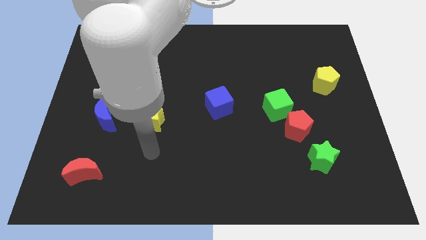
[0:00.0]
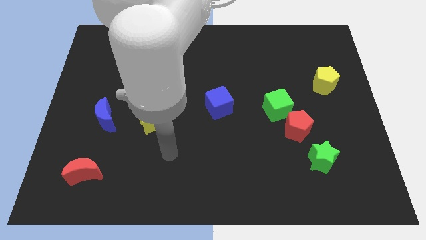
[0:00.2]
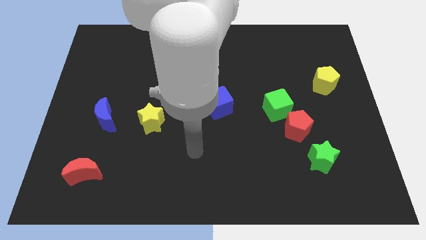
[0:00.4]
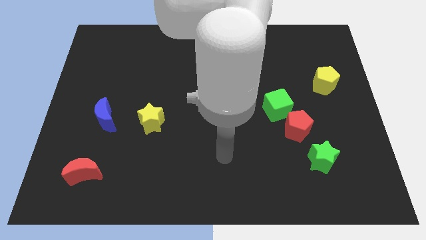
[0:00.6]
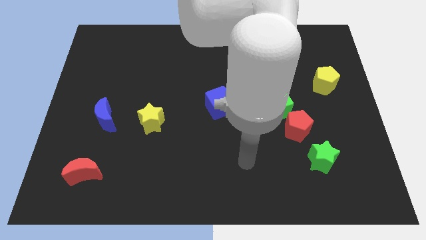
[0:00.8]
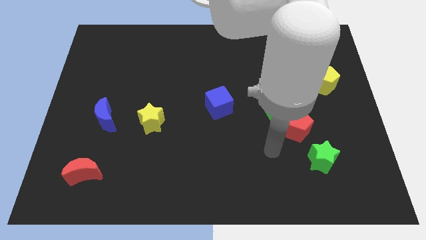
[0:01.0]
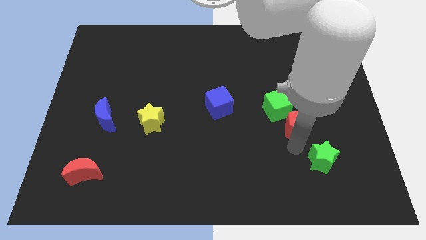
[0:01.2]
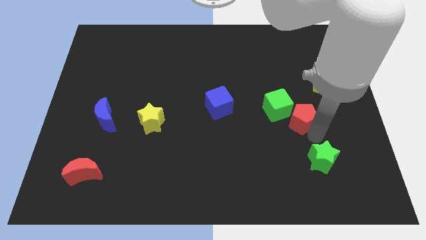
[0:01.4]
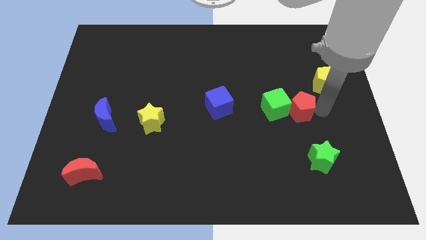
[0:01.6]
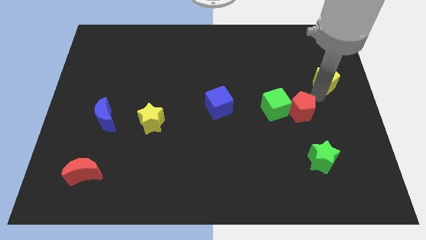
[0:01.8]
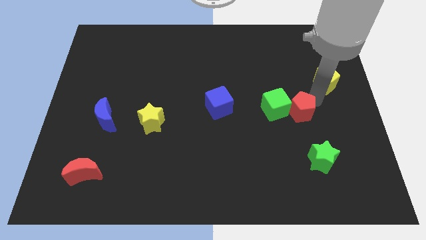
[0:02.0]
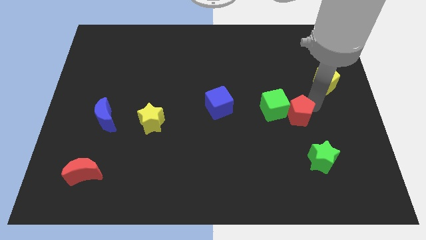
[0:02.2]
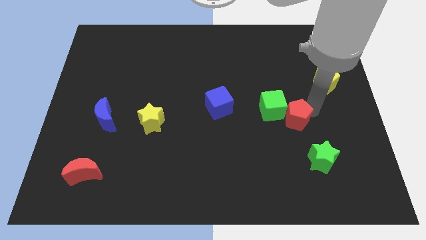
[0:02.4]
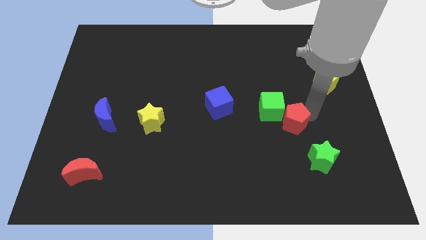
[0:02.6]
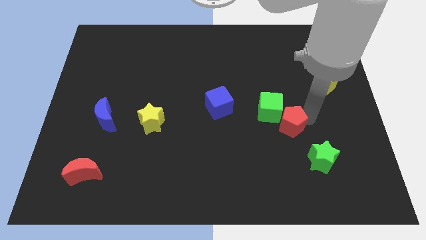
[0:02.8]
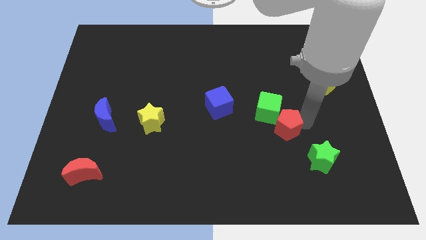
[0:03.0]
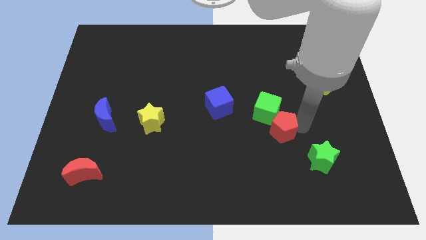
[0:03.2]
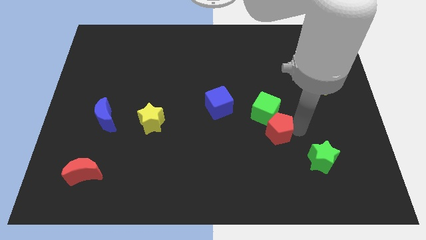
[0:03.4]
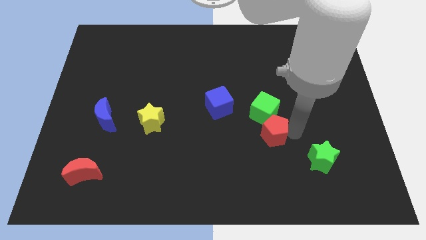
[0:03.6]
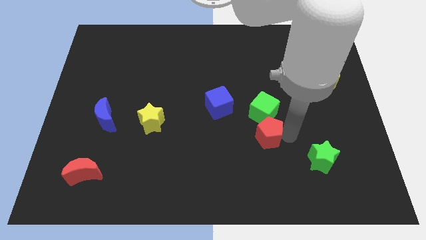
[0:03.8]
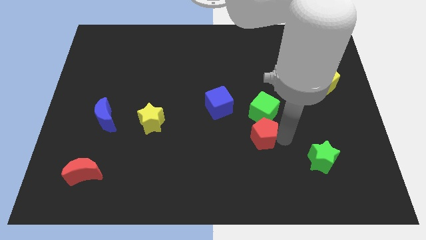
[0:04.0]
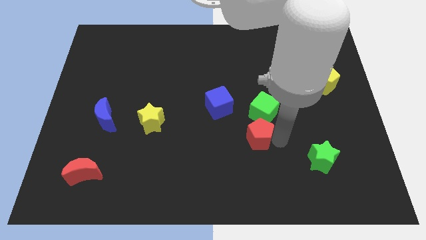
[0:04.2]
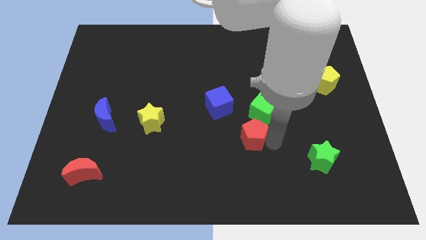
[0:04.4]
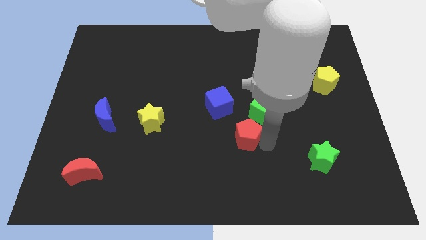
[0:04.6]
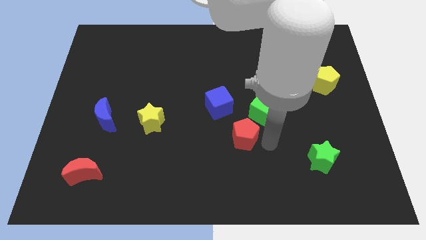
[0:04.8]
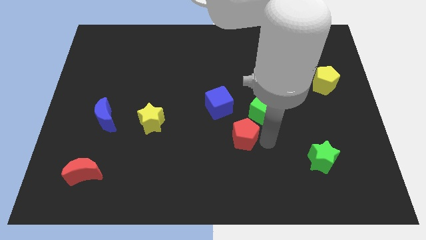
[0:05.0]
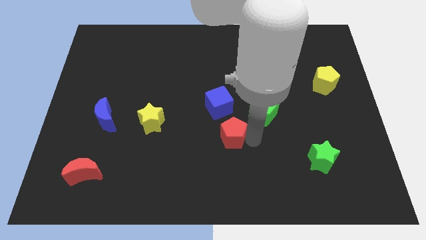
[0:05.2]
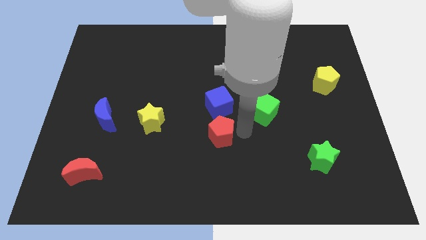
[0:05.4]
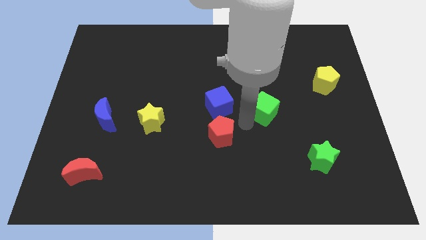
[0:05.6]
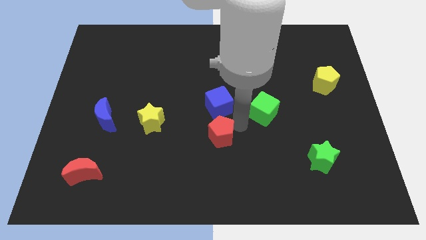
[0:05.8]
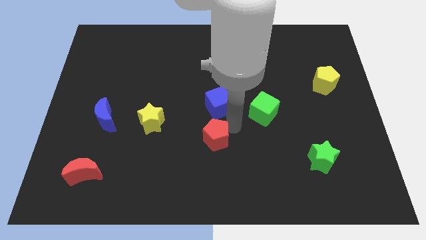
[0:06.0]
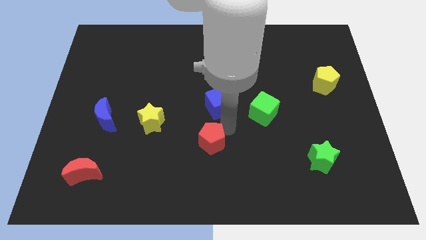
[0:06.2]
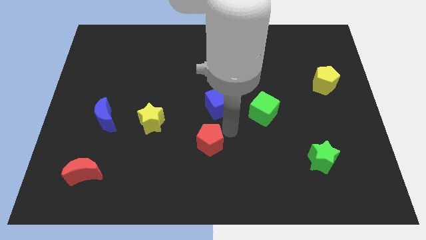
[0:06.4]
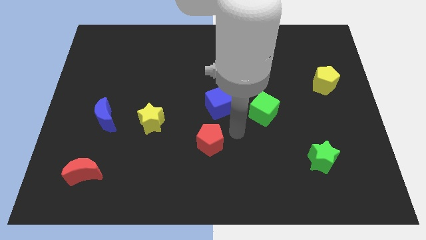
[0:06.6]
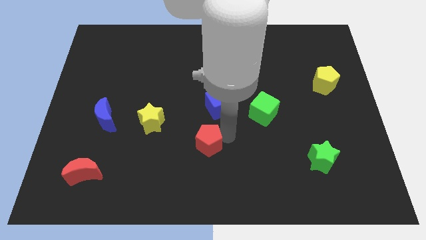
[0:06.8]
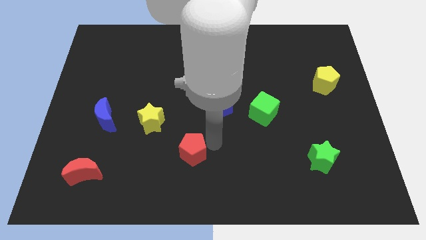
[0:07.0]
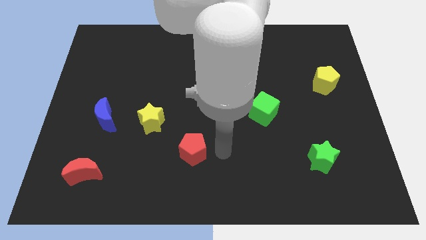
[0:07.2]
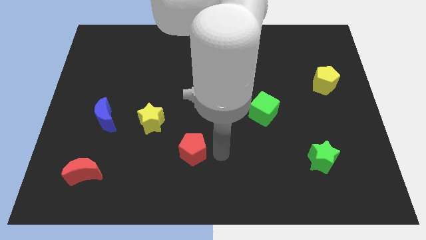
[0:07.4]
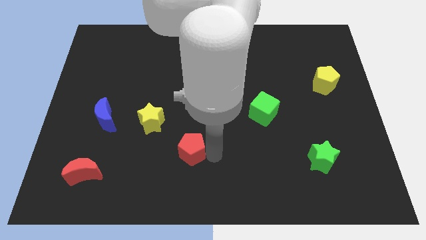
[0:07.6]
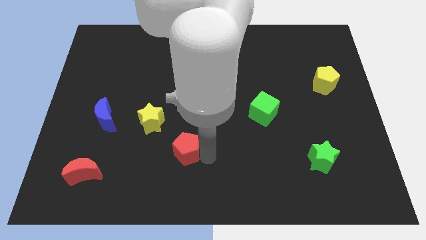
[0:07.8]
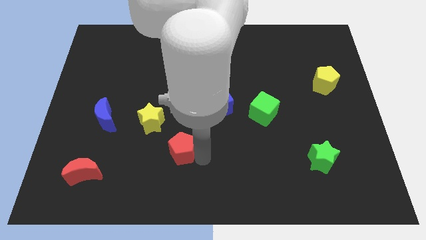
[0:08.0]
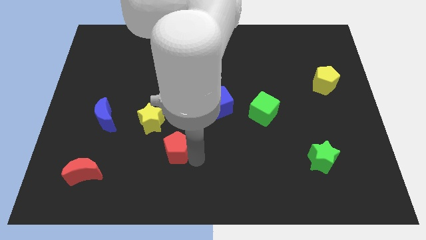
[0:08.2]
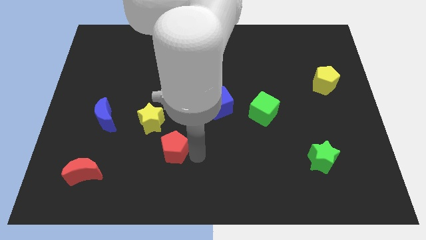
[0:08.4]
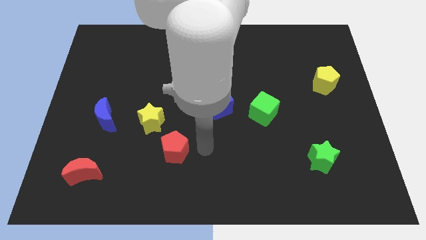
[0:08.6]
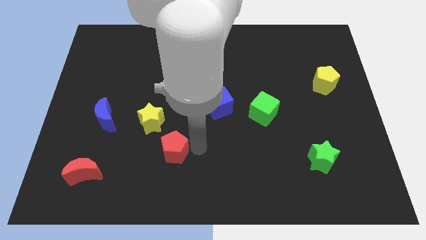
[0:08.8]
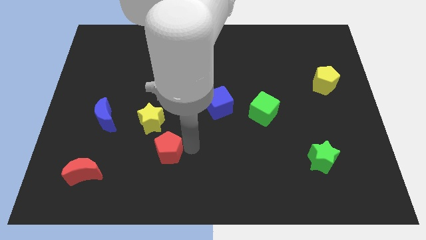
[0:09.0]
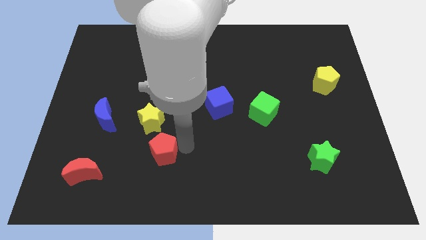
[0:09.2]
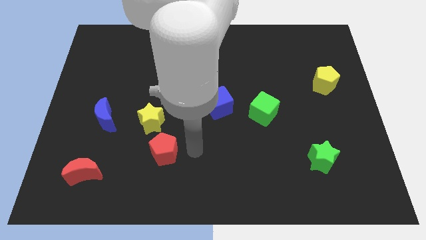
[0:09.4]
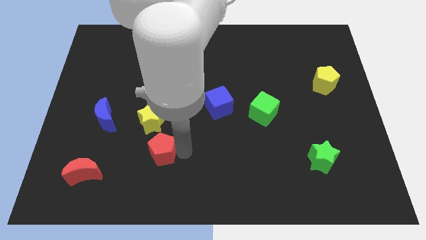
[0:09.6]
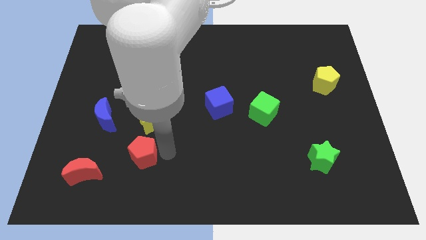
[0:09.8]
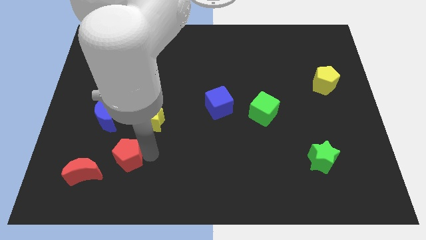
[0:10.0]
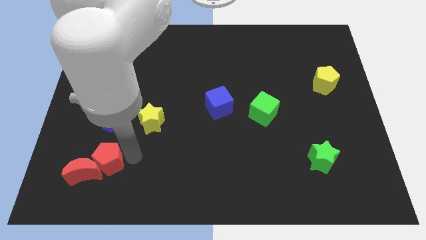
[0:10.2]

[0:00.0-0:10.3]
move the red pentagon next to the red moon

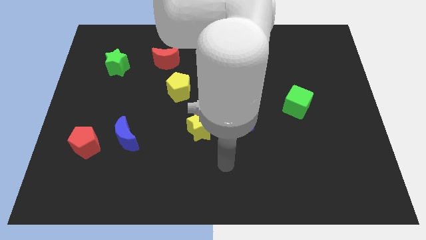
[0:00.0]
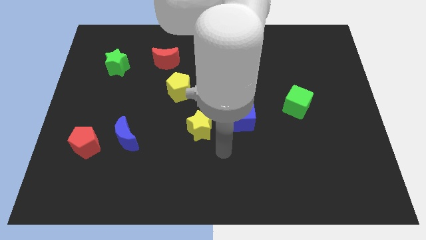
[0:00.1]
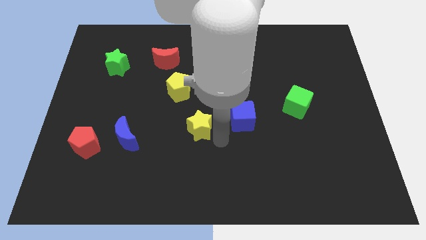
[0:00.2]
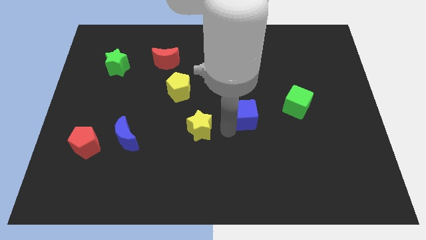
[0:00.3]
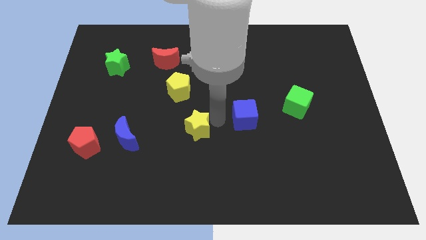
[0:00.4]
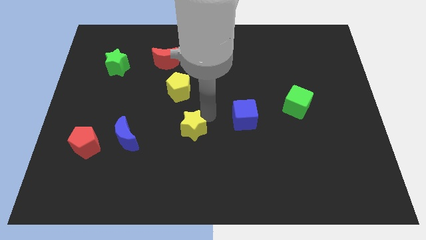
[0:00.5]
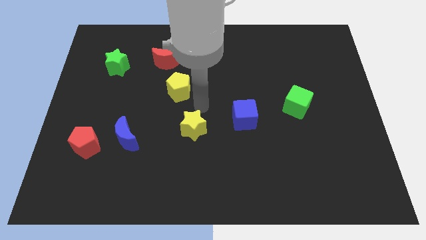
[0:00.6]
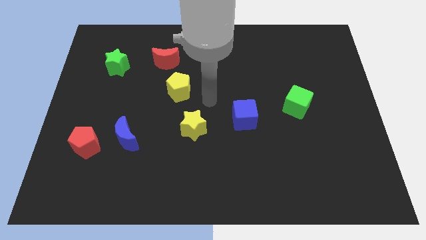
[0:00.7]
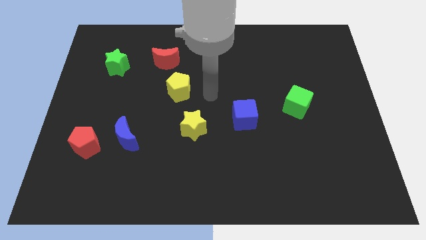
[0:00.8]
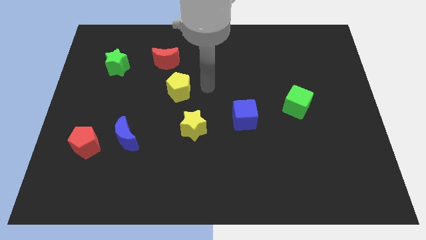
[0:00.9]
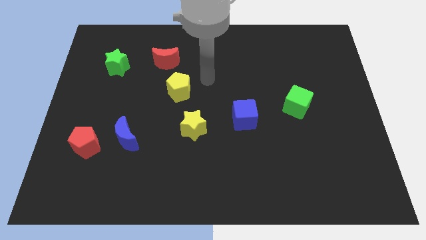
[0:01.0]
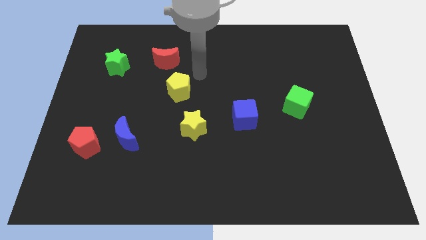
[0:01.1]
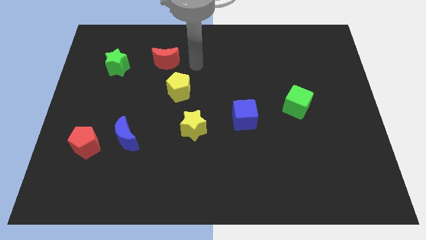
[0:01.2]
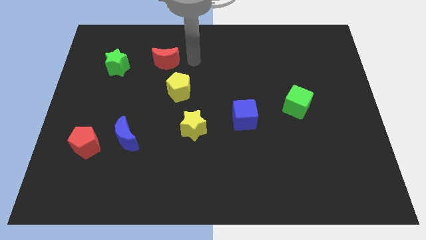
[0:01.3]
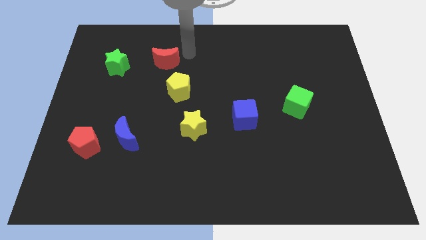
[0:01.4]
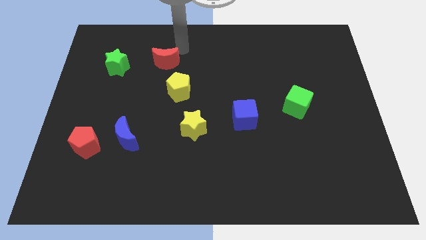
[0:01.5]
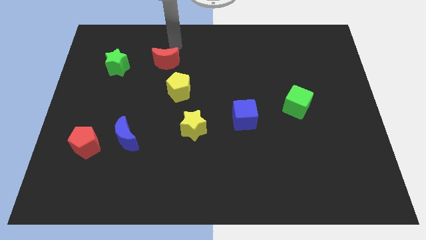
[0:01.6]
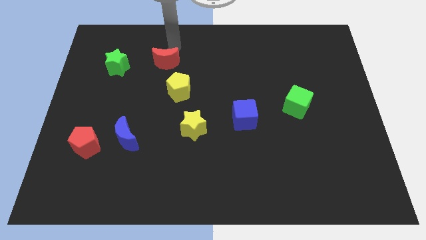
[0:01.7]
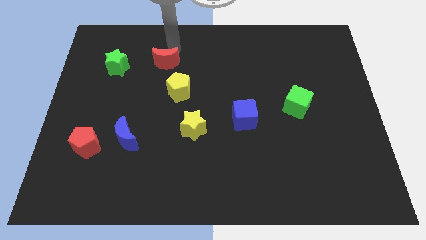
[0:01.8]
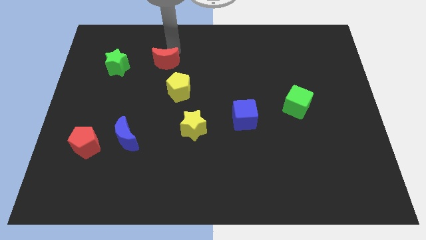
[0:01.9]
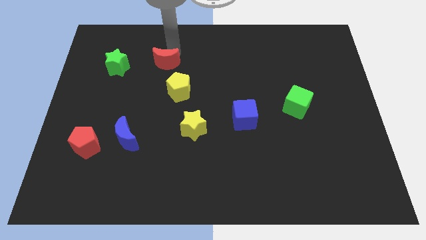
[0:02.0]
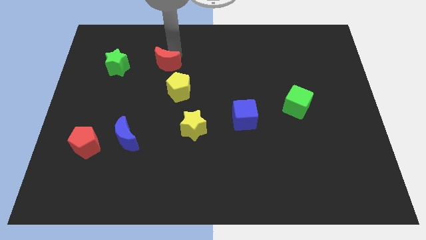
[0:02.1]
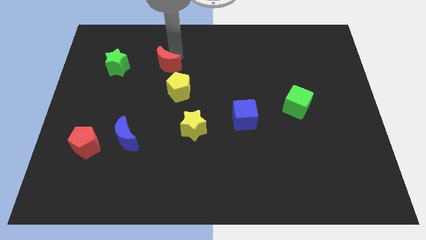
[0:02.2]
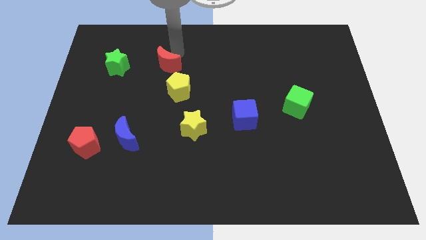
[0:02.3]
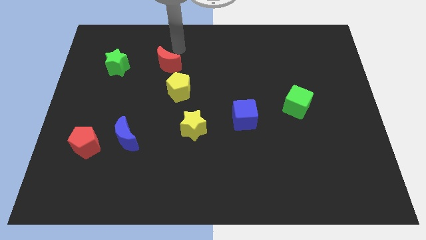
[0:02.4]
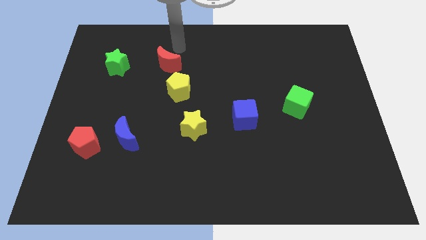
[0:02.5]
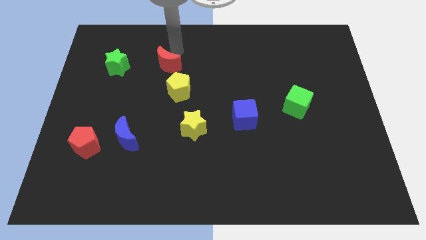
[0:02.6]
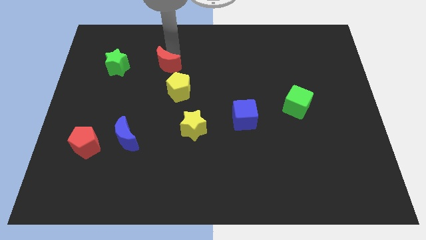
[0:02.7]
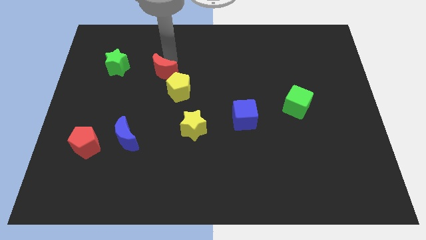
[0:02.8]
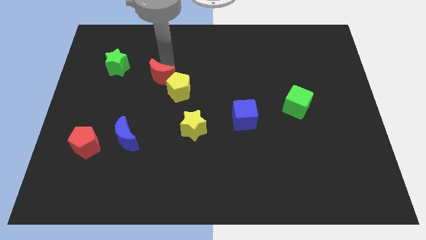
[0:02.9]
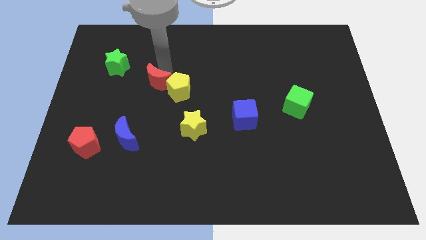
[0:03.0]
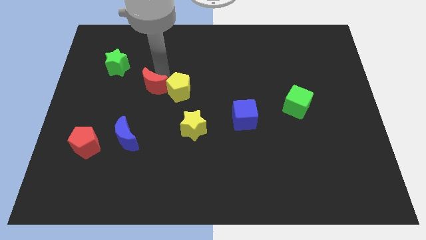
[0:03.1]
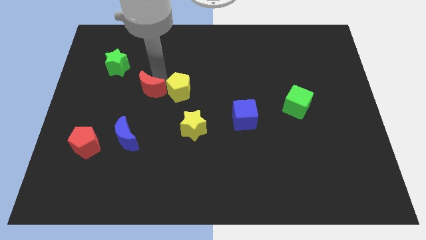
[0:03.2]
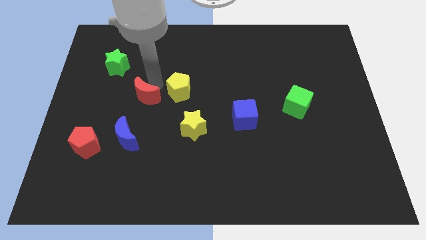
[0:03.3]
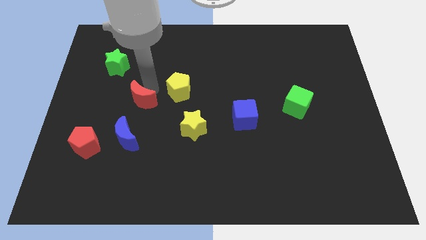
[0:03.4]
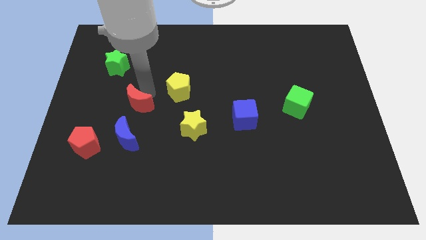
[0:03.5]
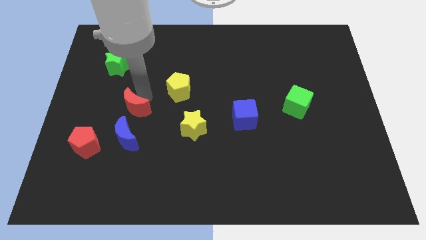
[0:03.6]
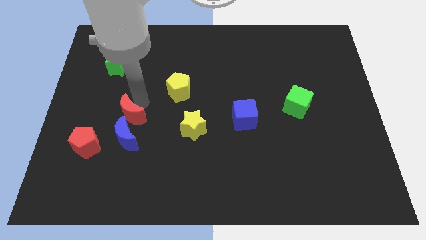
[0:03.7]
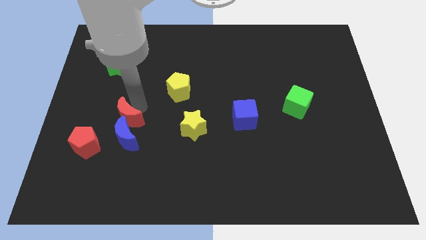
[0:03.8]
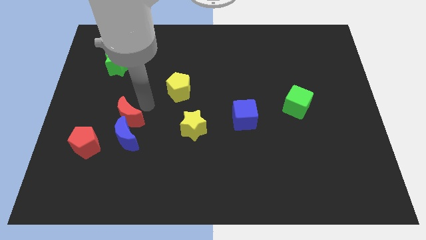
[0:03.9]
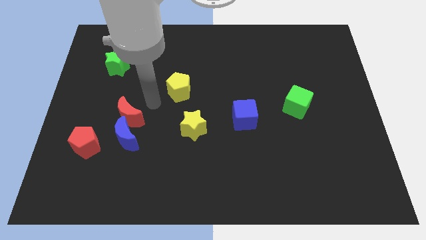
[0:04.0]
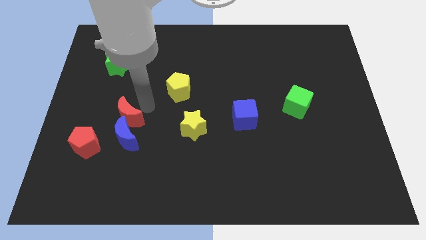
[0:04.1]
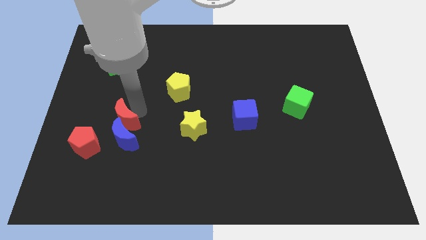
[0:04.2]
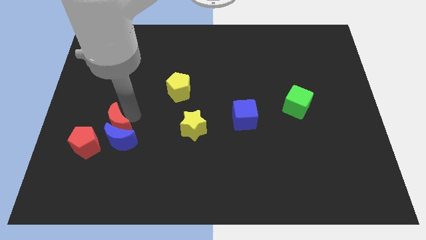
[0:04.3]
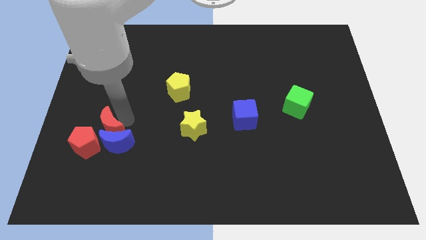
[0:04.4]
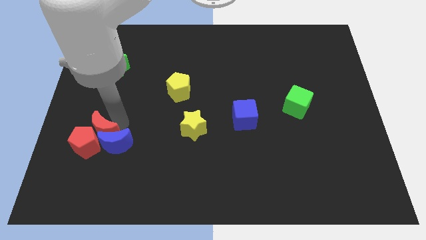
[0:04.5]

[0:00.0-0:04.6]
put the red moon to the red pentagon
